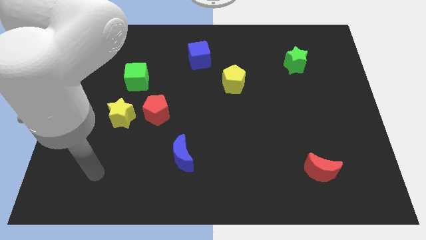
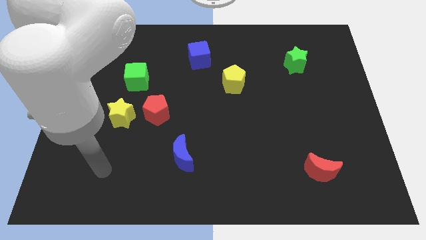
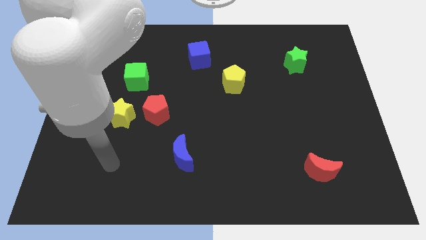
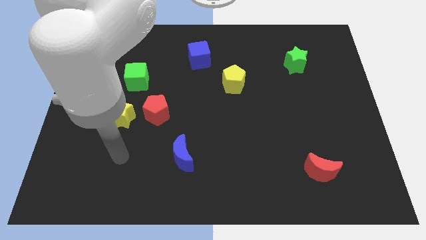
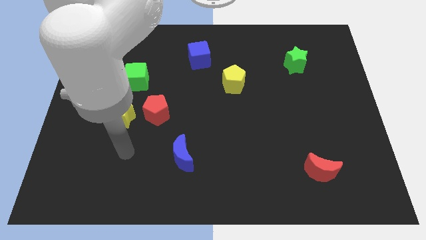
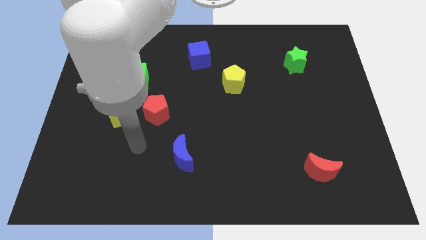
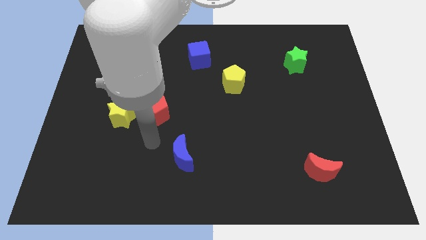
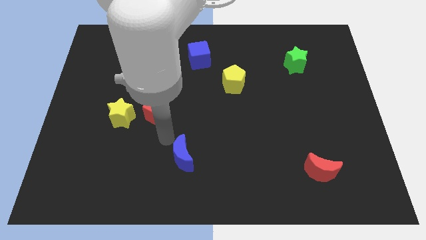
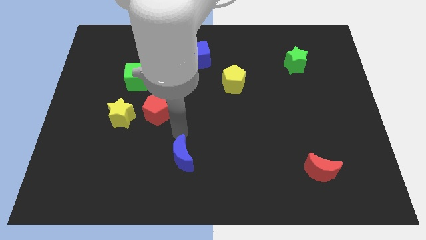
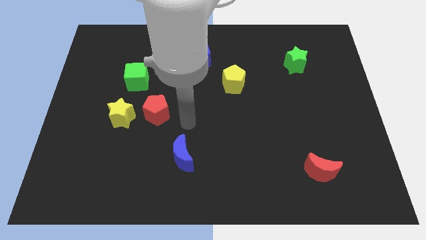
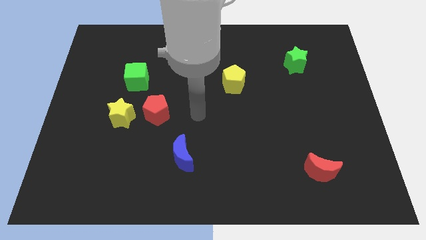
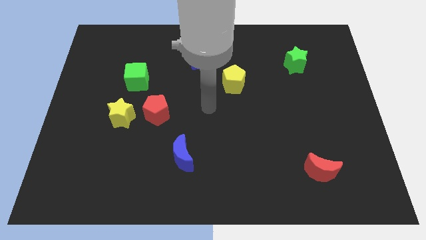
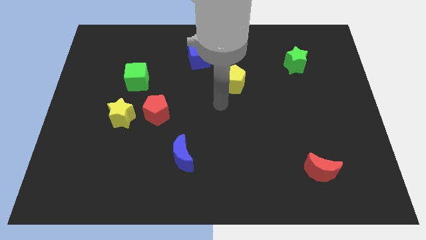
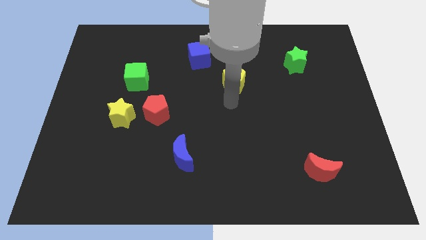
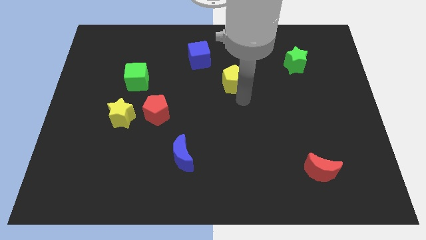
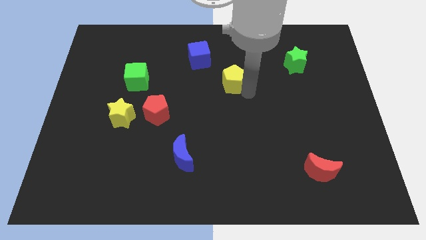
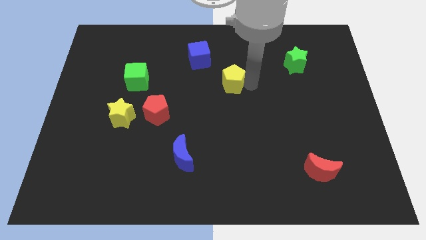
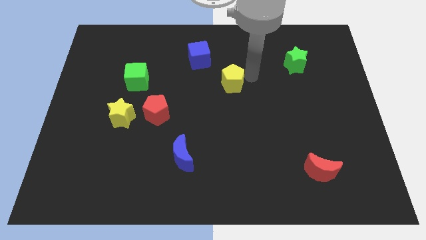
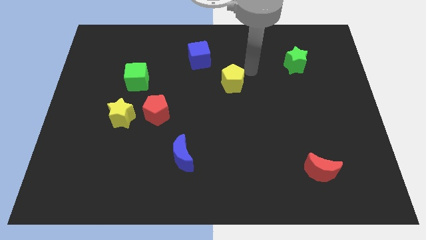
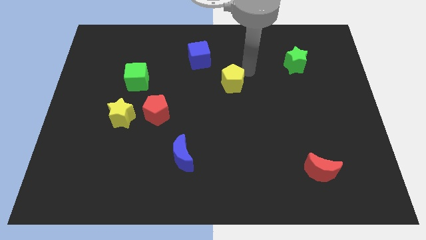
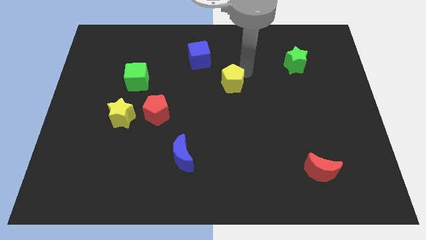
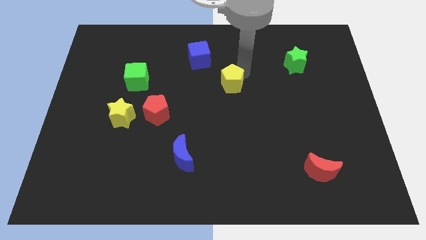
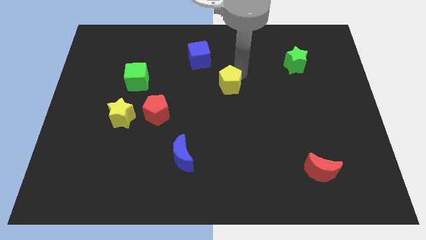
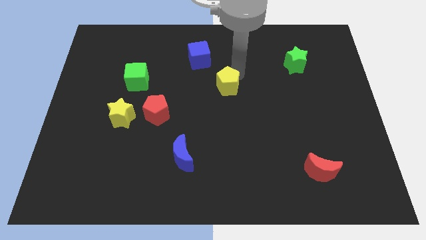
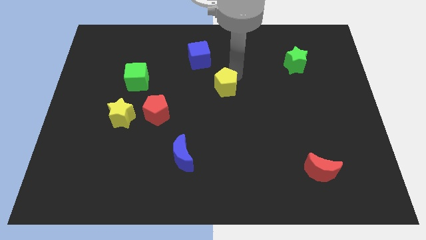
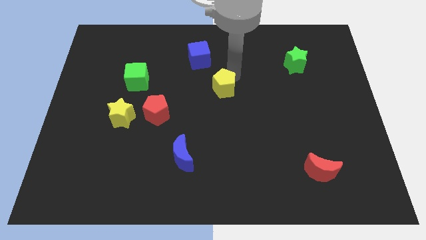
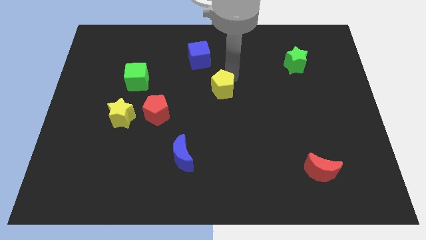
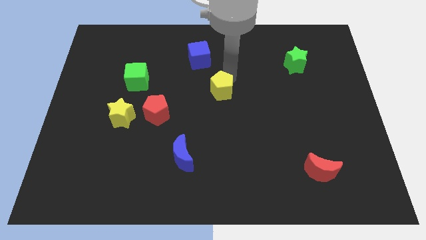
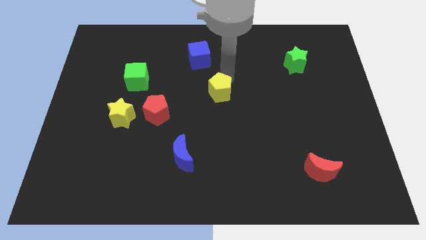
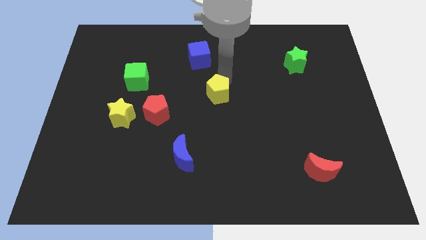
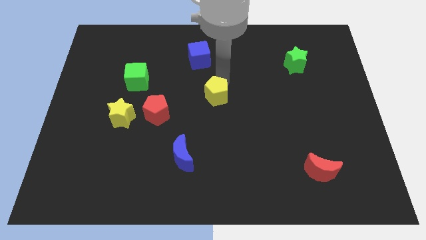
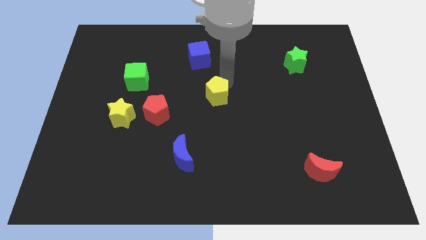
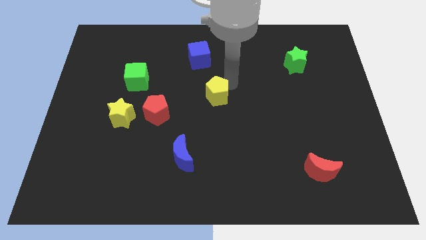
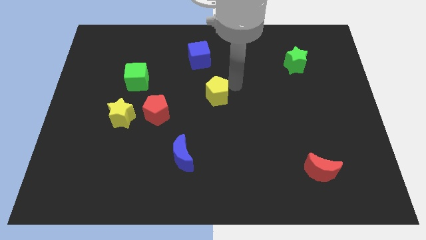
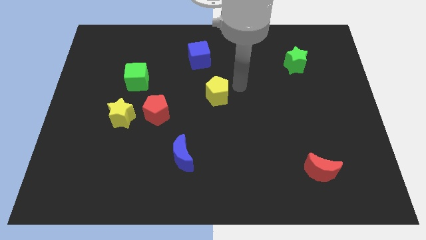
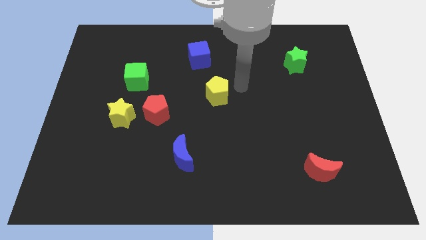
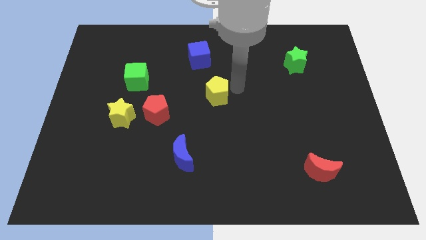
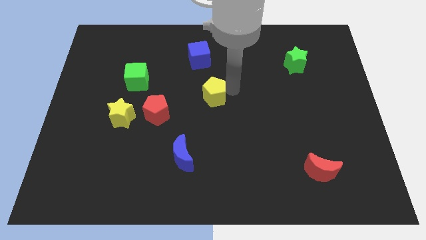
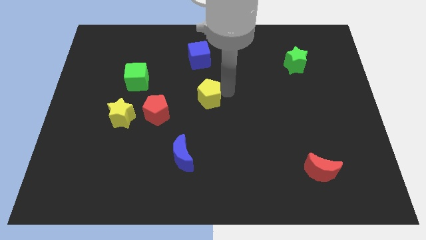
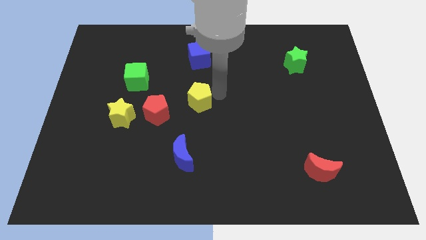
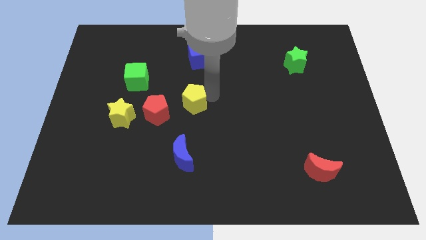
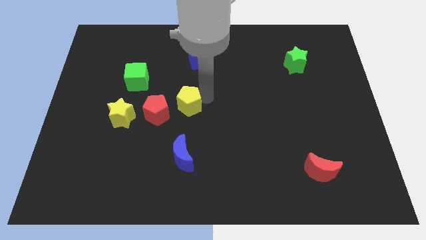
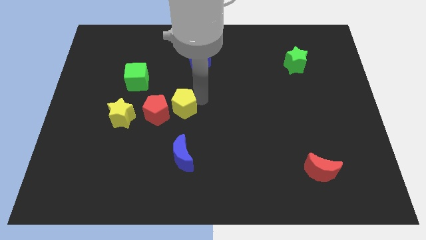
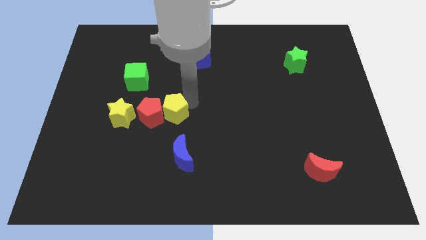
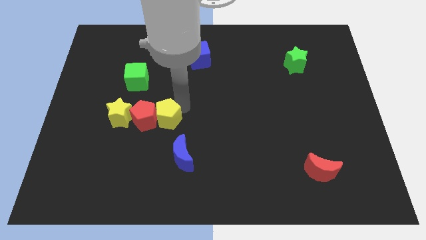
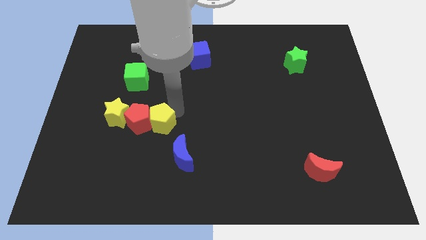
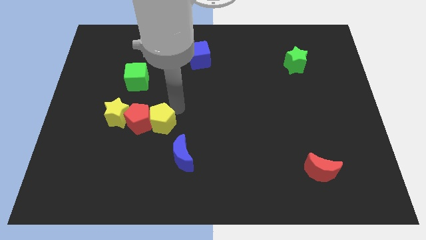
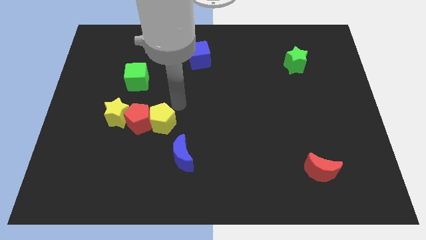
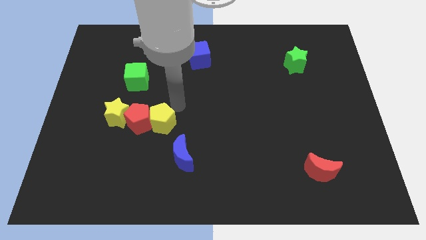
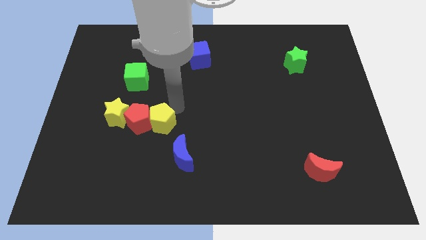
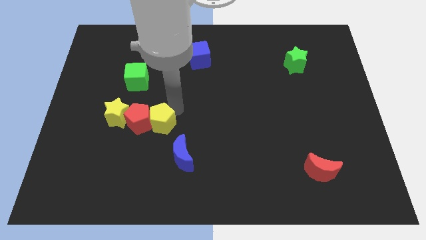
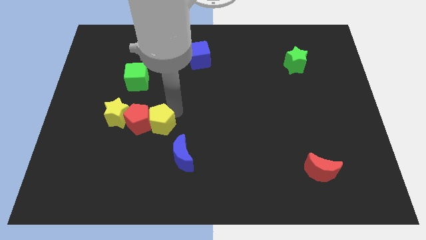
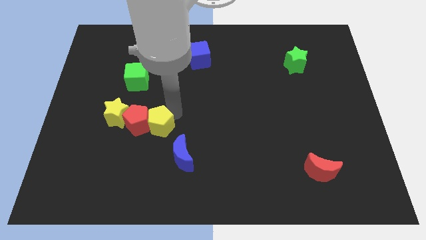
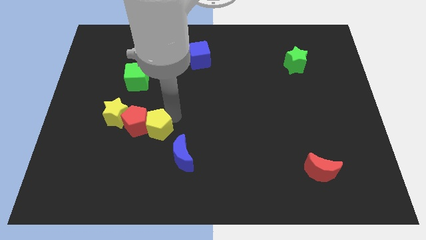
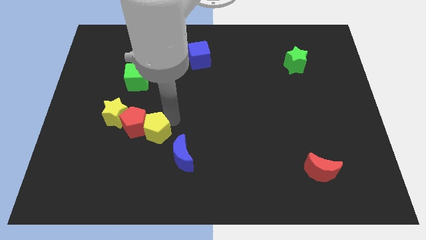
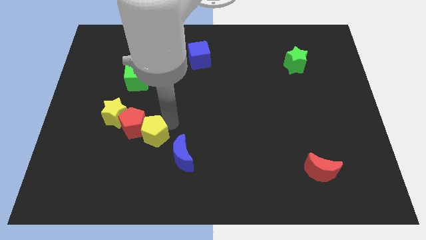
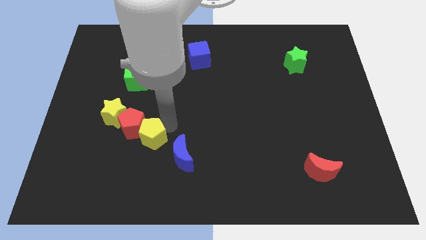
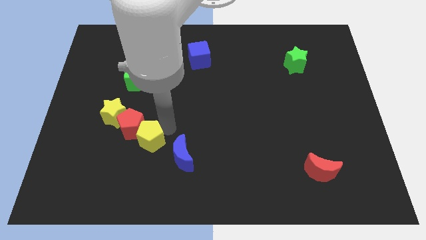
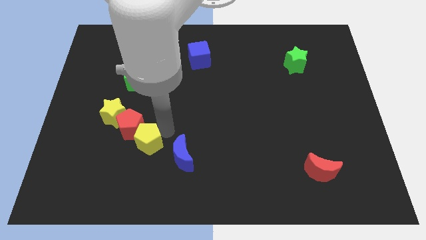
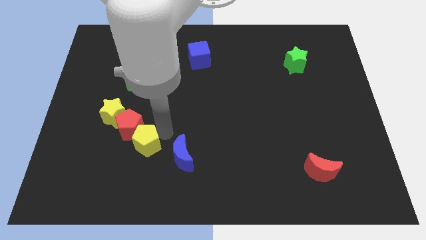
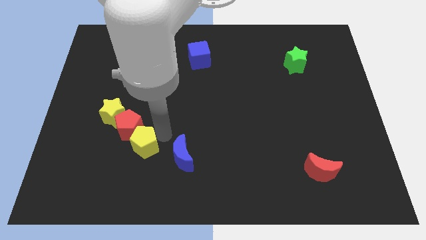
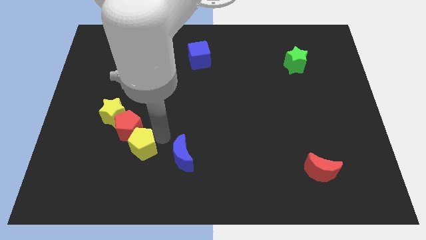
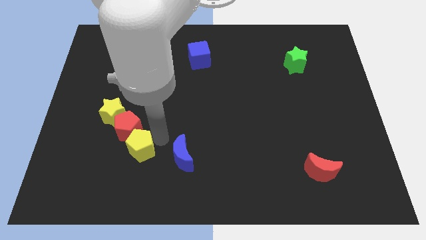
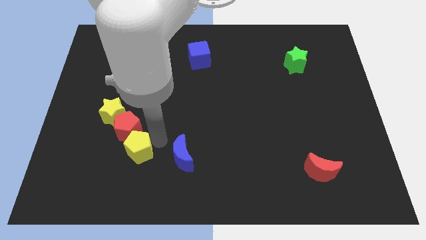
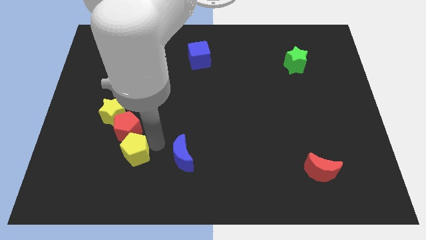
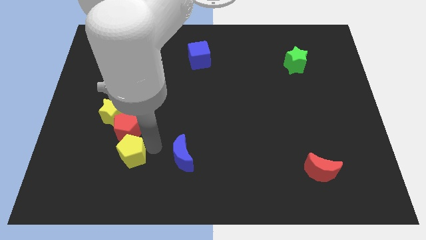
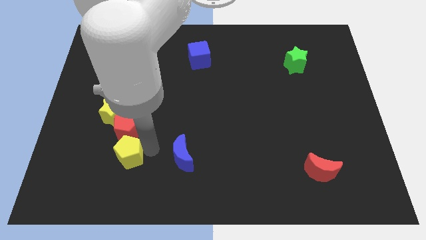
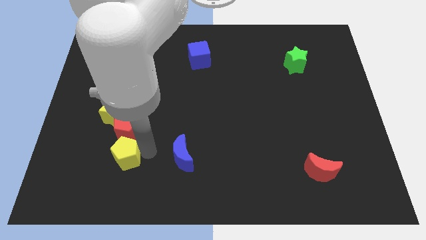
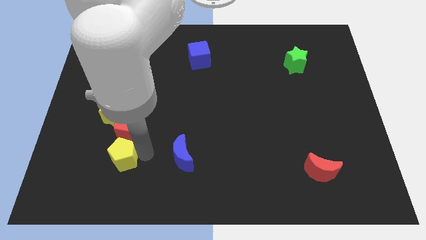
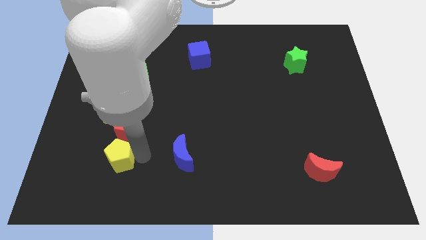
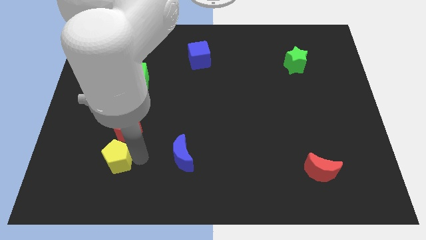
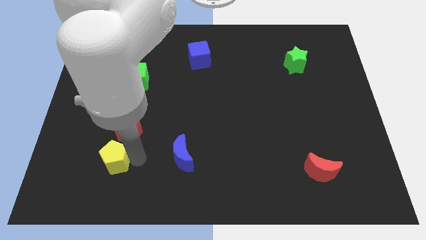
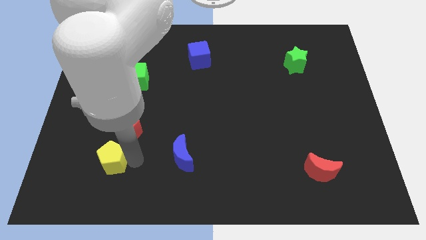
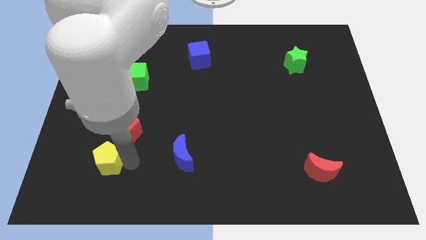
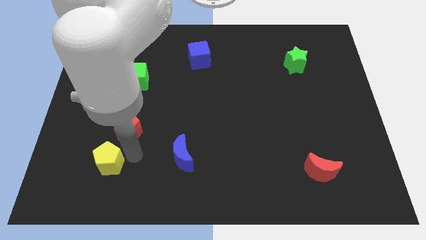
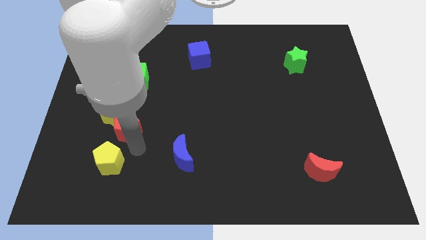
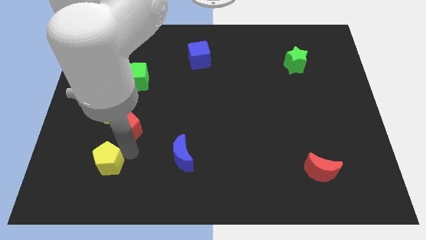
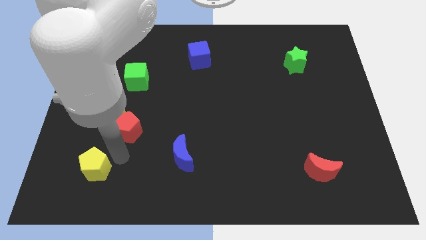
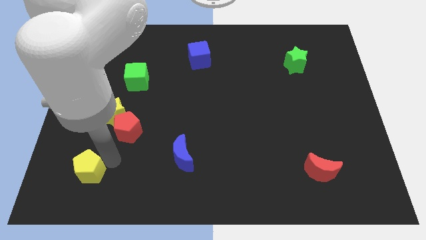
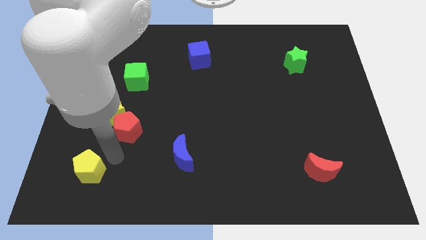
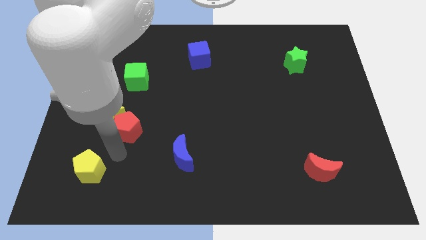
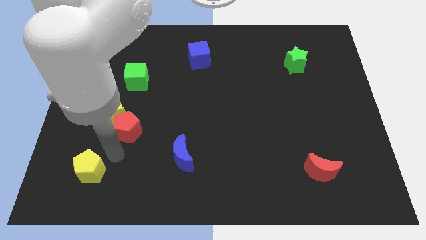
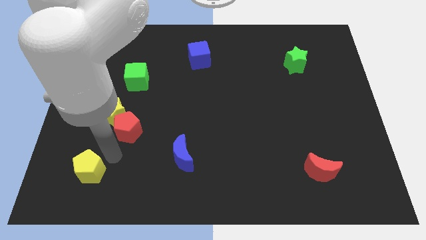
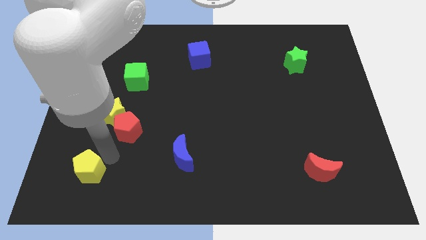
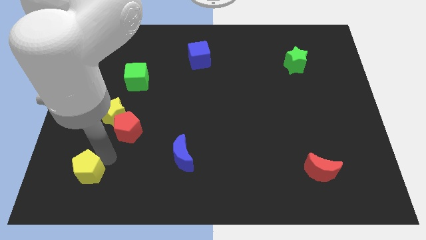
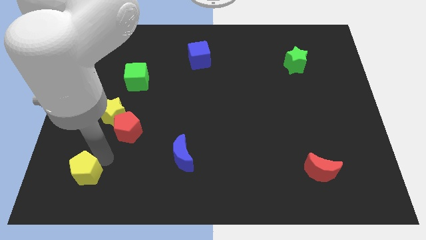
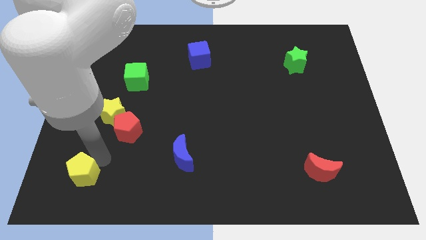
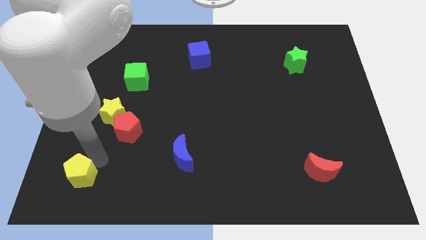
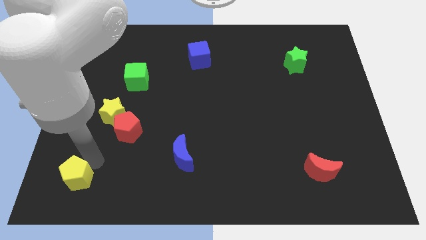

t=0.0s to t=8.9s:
slide the yellow pentagon to the bottom left corner
